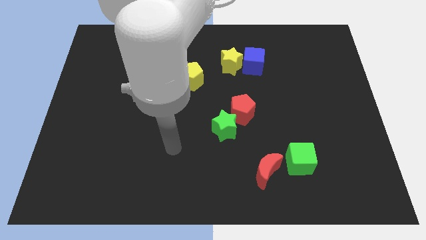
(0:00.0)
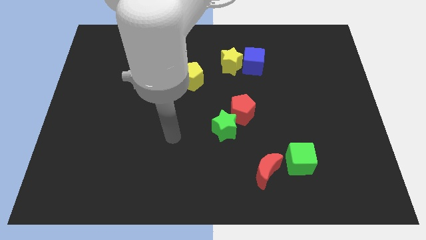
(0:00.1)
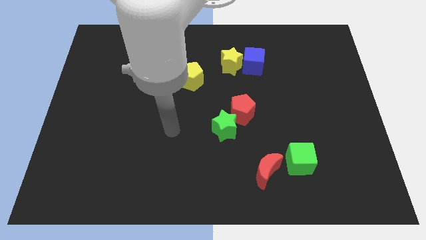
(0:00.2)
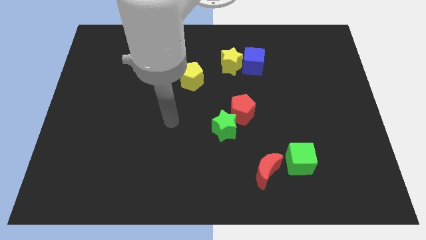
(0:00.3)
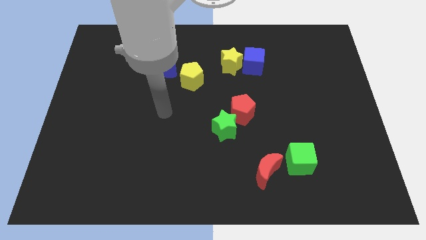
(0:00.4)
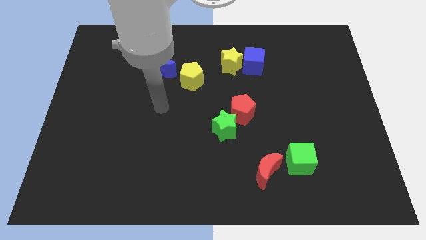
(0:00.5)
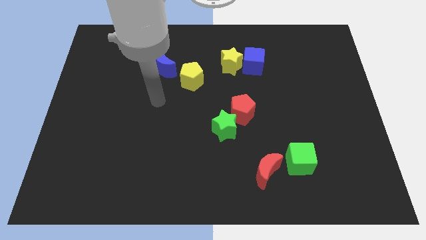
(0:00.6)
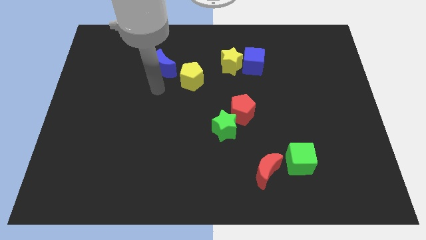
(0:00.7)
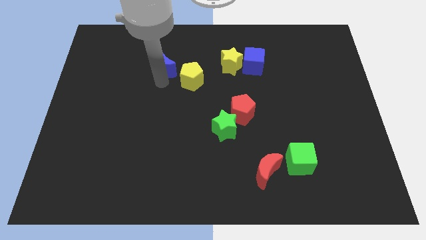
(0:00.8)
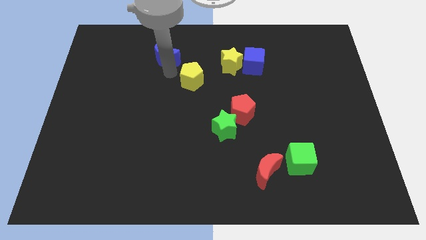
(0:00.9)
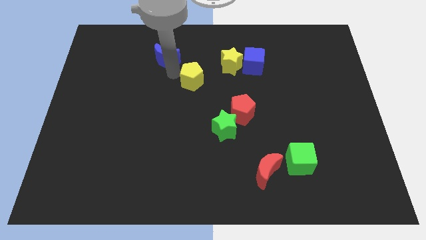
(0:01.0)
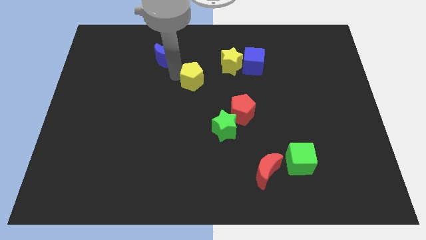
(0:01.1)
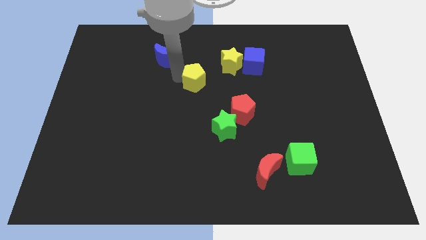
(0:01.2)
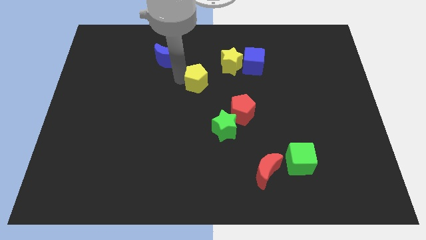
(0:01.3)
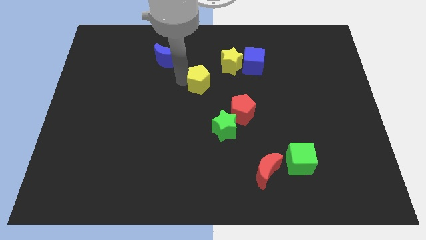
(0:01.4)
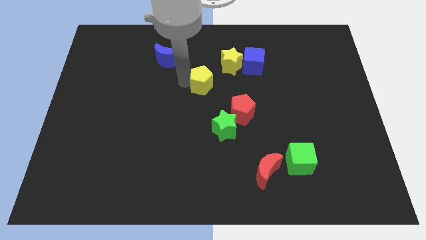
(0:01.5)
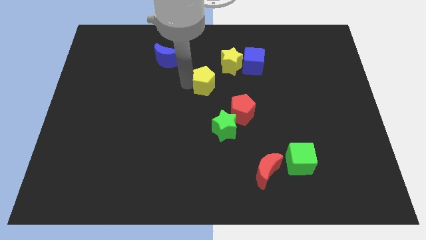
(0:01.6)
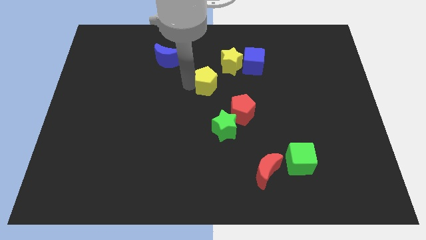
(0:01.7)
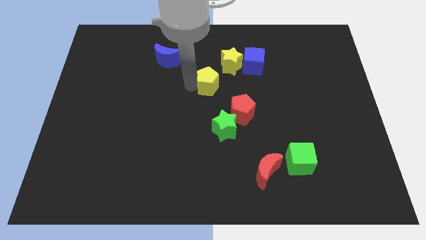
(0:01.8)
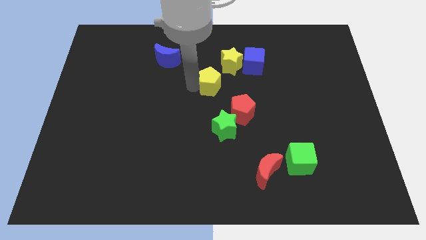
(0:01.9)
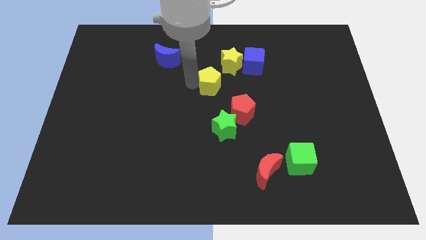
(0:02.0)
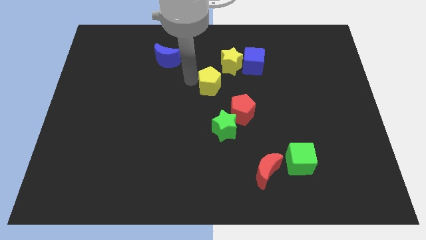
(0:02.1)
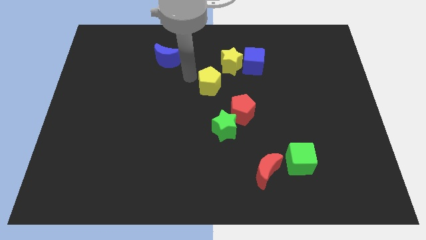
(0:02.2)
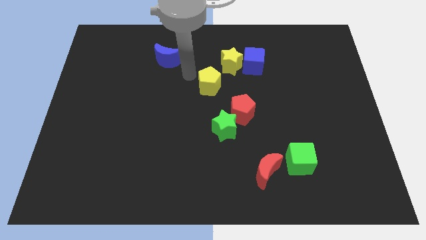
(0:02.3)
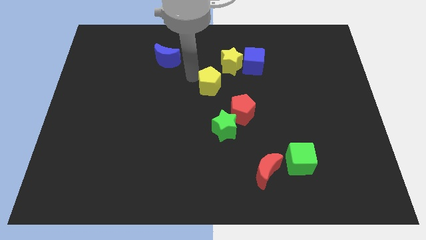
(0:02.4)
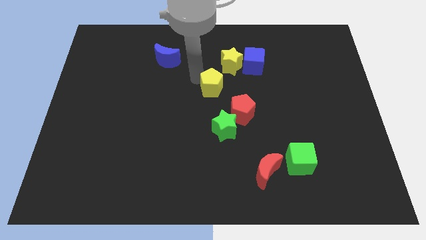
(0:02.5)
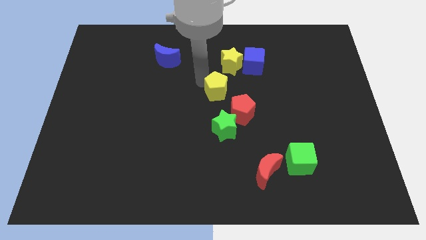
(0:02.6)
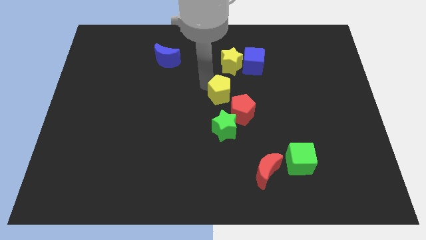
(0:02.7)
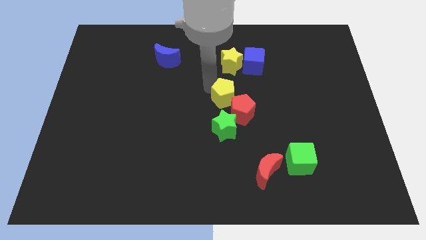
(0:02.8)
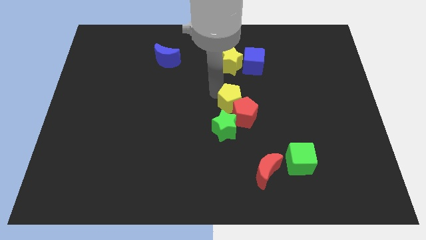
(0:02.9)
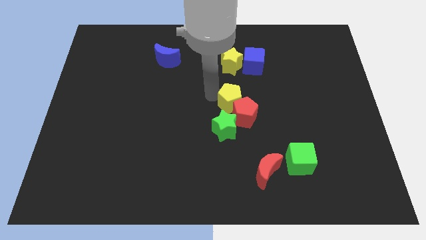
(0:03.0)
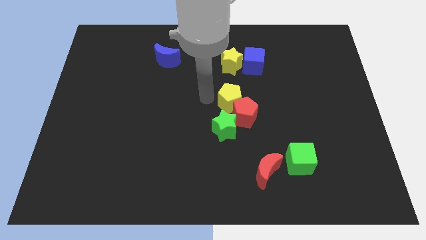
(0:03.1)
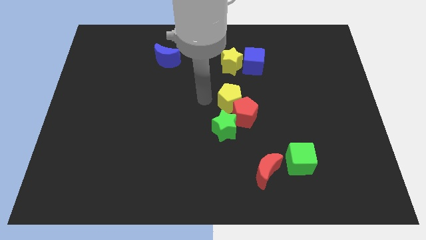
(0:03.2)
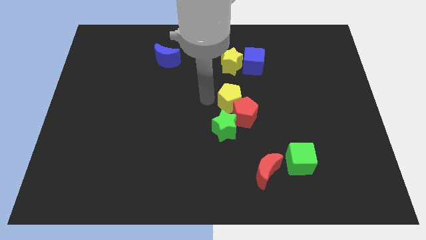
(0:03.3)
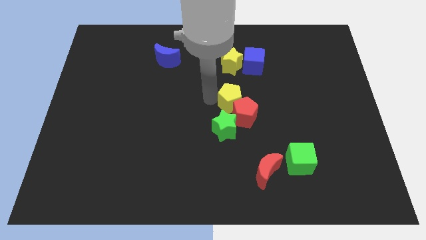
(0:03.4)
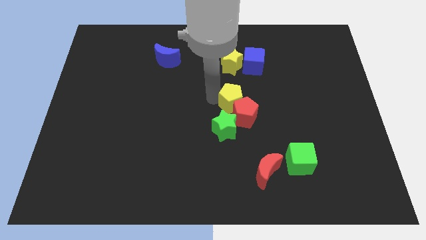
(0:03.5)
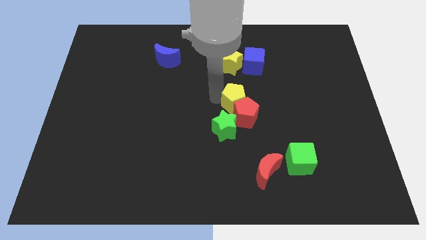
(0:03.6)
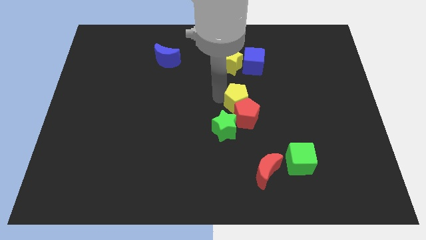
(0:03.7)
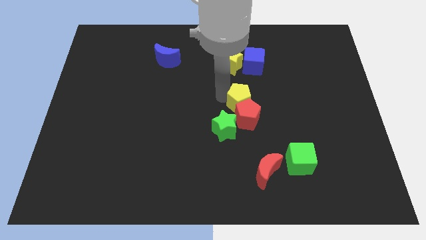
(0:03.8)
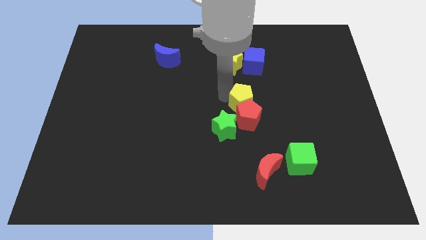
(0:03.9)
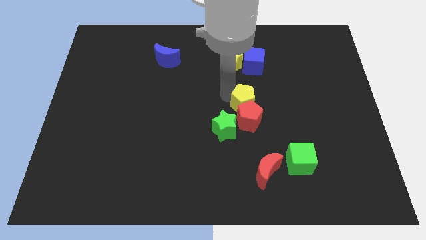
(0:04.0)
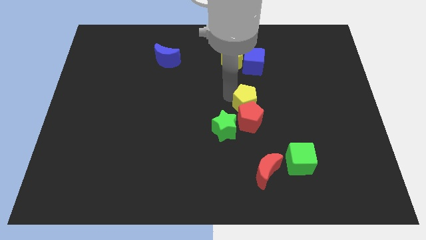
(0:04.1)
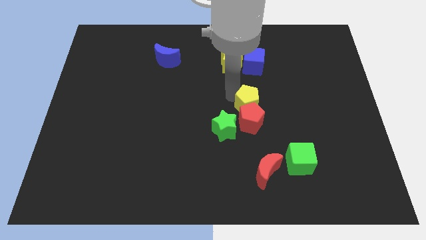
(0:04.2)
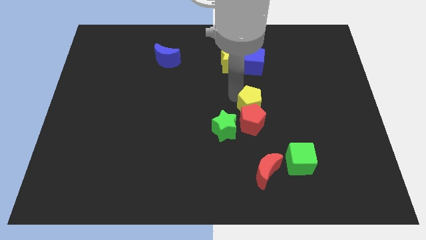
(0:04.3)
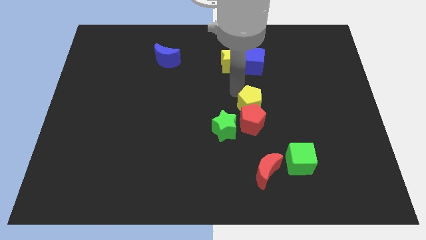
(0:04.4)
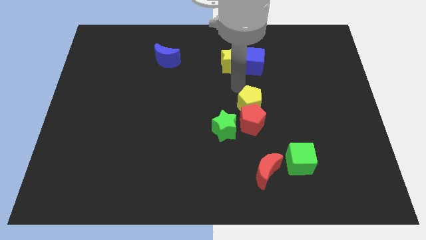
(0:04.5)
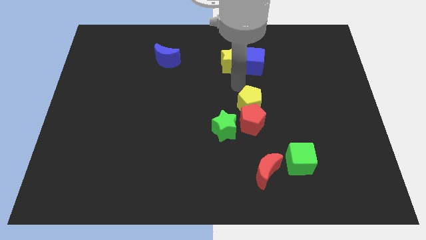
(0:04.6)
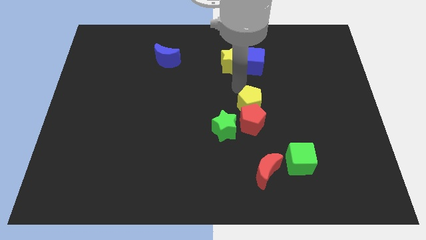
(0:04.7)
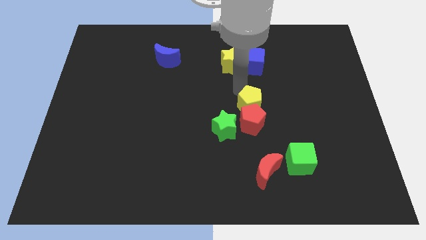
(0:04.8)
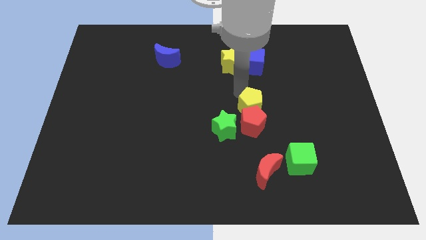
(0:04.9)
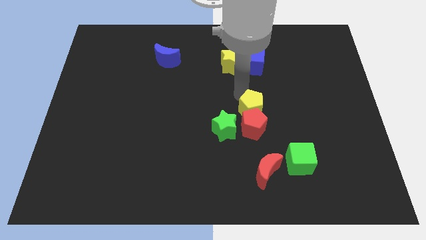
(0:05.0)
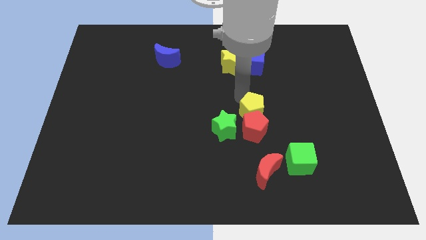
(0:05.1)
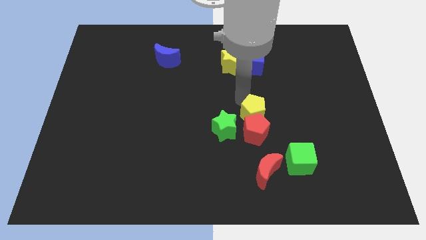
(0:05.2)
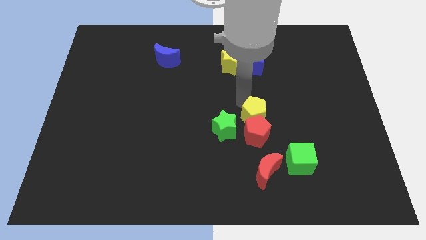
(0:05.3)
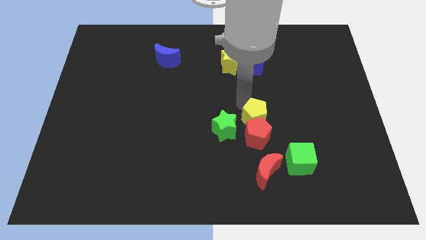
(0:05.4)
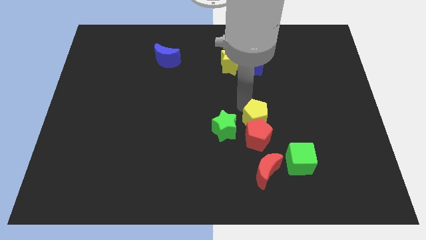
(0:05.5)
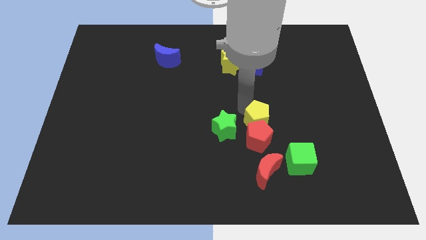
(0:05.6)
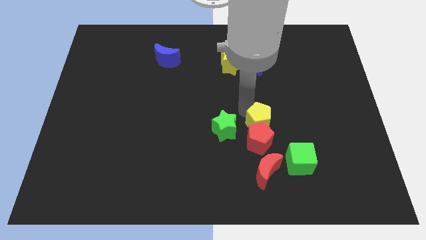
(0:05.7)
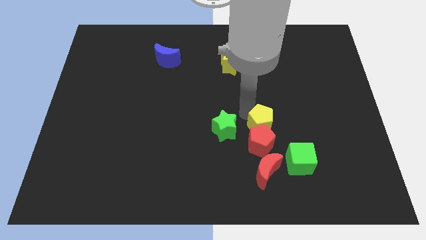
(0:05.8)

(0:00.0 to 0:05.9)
put the yellow pentagon to the top left of the green cube

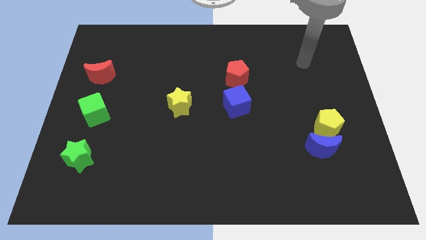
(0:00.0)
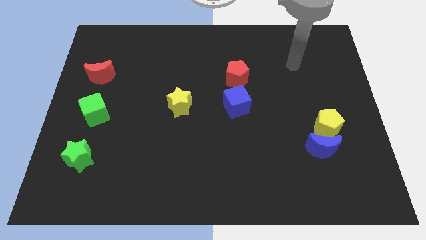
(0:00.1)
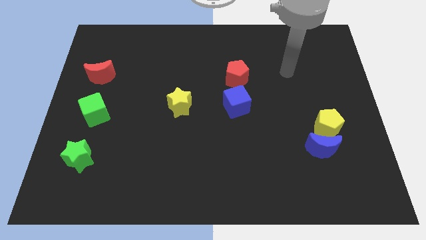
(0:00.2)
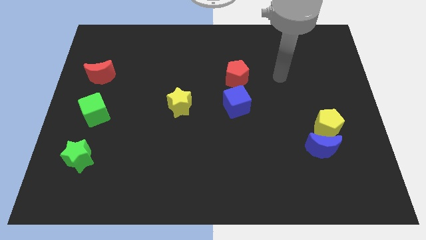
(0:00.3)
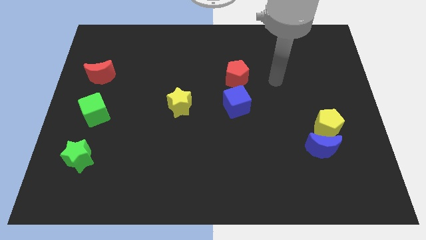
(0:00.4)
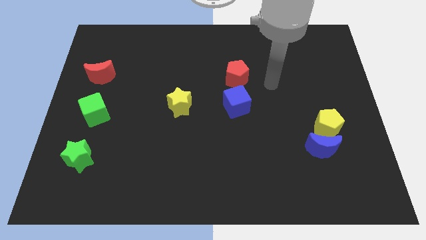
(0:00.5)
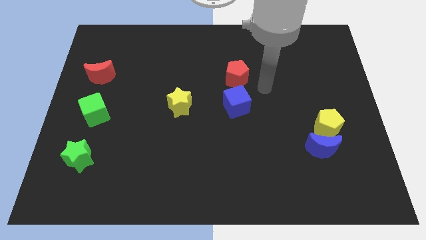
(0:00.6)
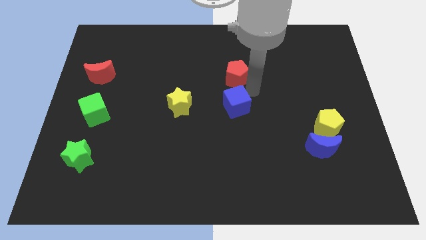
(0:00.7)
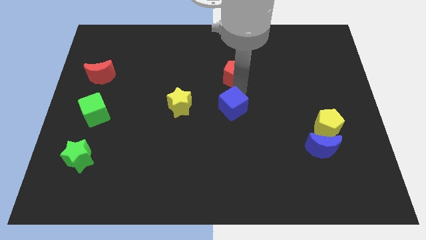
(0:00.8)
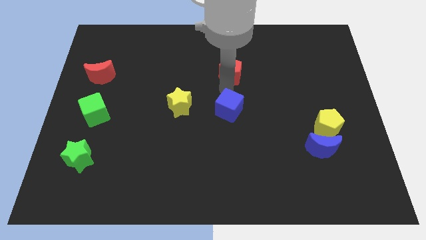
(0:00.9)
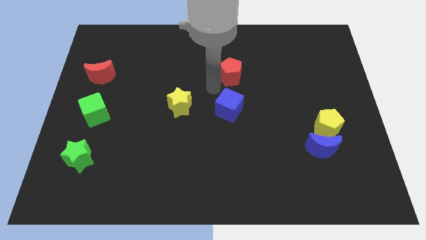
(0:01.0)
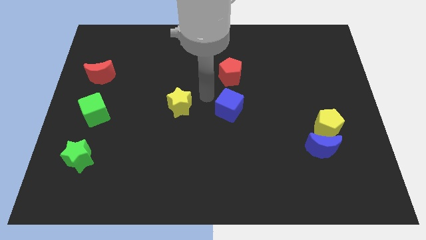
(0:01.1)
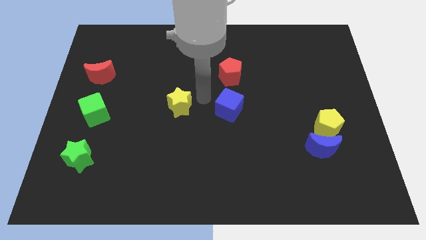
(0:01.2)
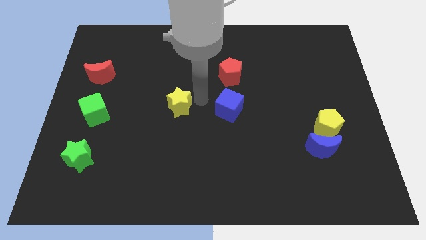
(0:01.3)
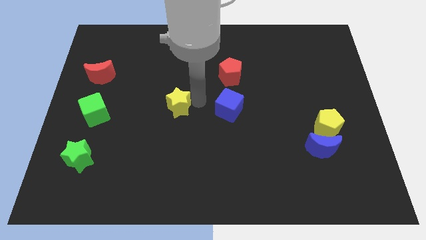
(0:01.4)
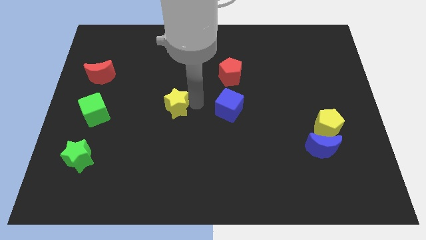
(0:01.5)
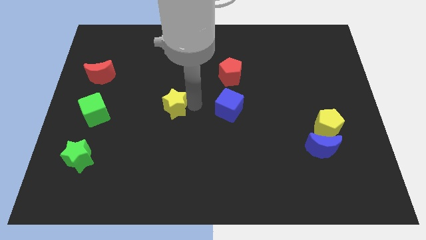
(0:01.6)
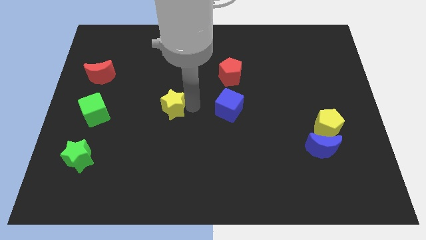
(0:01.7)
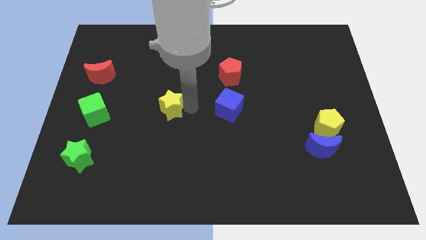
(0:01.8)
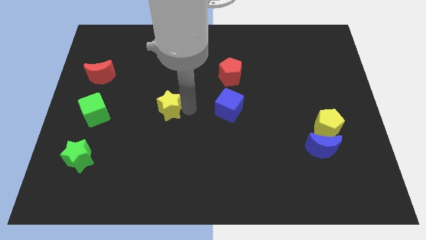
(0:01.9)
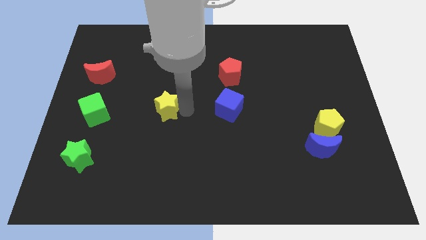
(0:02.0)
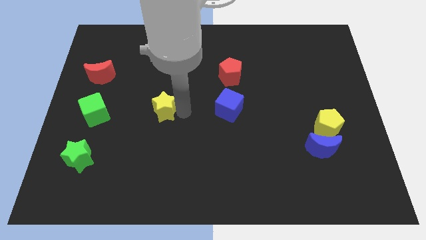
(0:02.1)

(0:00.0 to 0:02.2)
push the yellow star just right of the green cube
